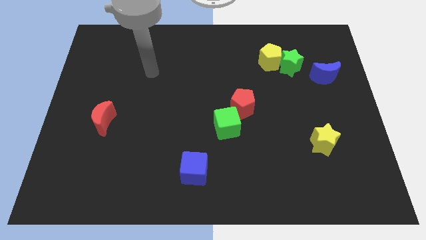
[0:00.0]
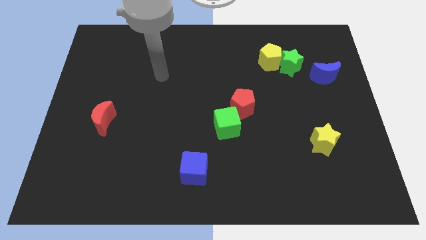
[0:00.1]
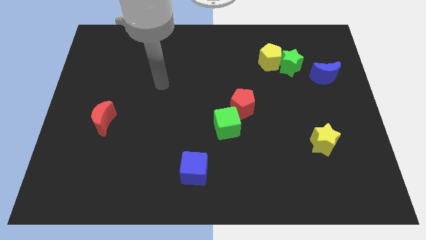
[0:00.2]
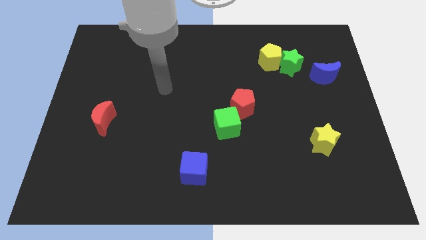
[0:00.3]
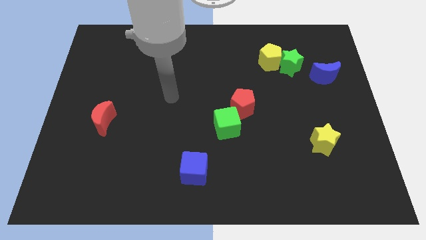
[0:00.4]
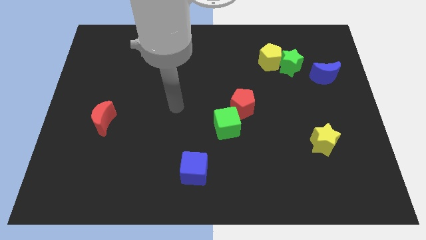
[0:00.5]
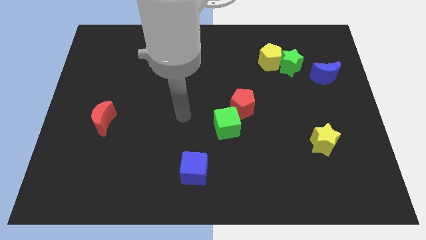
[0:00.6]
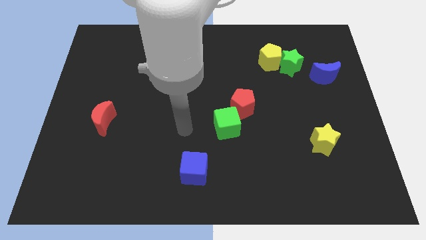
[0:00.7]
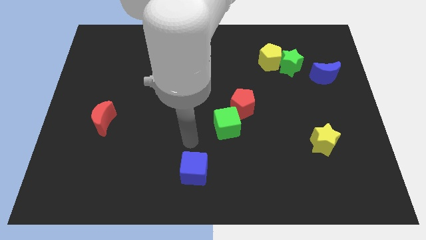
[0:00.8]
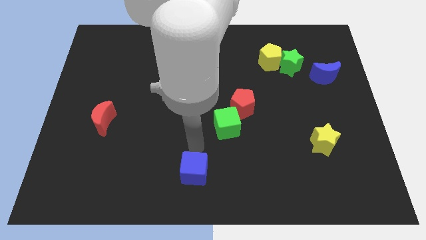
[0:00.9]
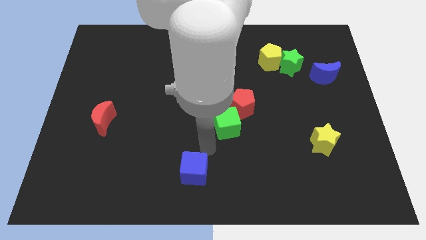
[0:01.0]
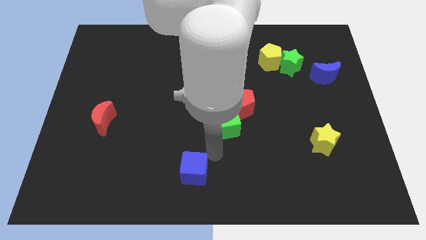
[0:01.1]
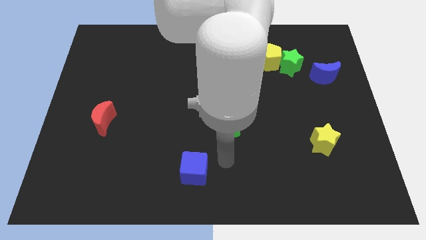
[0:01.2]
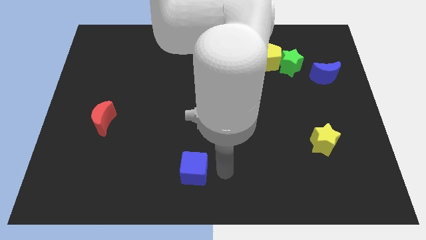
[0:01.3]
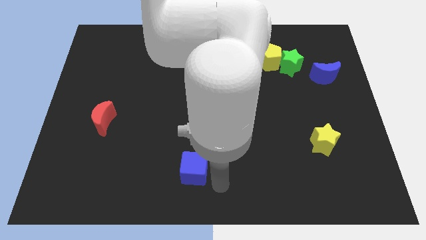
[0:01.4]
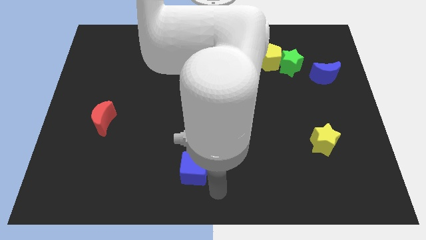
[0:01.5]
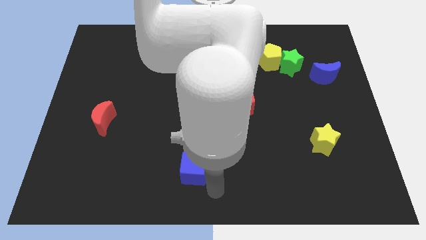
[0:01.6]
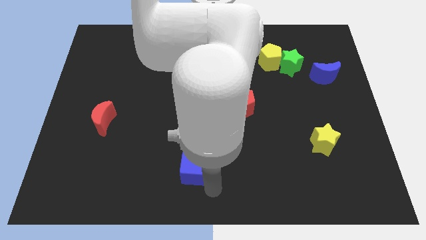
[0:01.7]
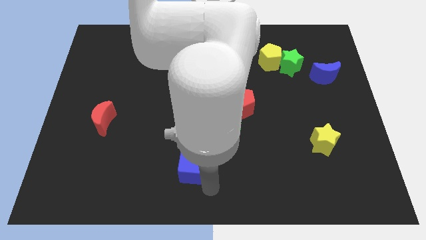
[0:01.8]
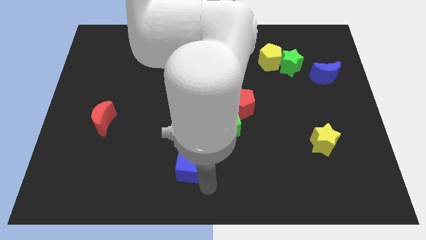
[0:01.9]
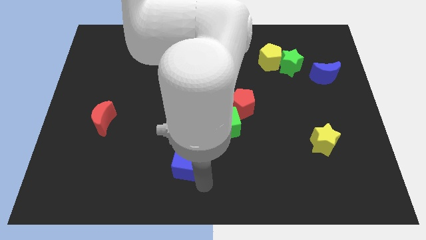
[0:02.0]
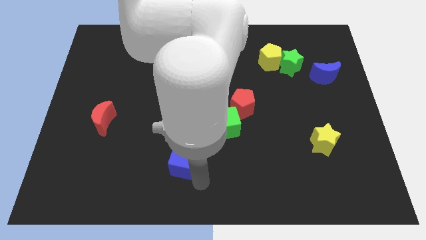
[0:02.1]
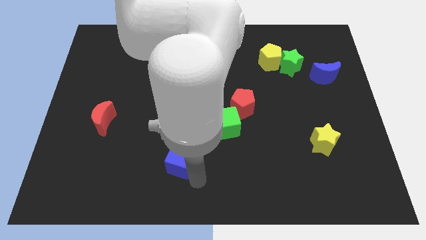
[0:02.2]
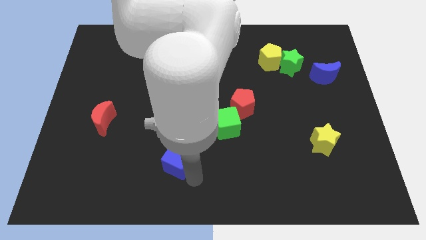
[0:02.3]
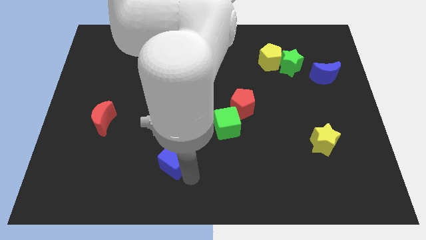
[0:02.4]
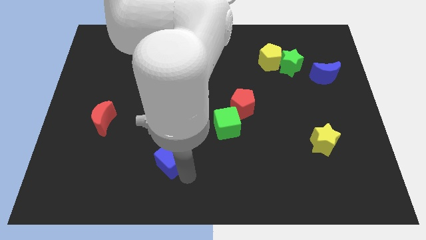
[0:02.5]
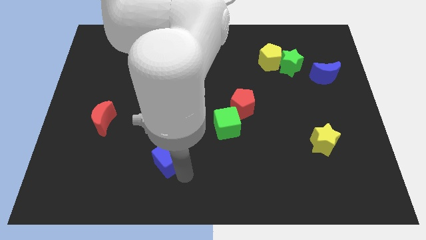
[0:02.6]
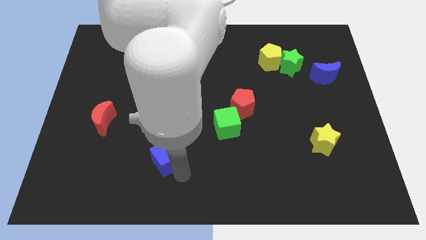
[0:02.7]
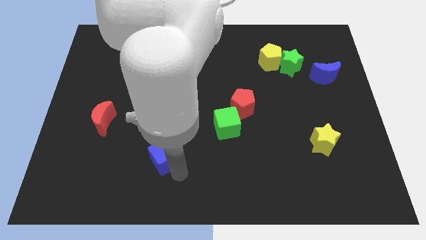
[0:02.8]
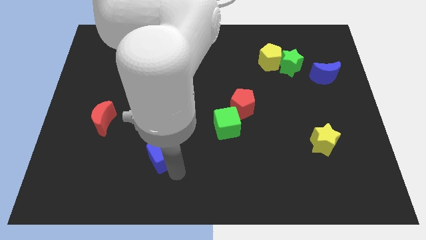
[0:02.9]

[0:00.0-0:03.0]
slide the blue cube slightly up and left

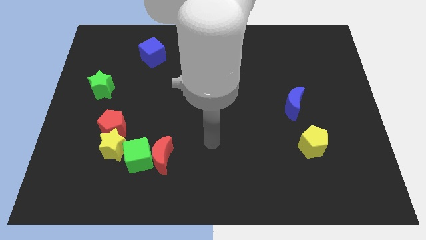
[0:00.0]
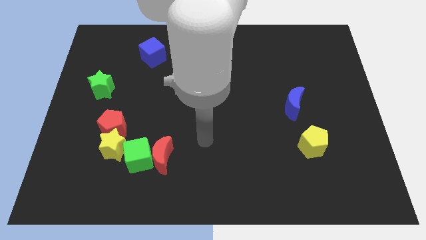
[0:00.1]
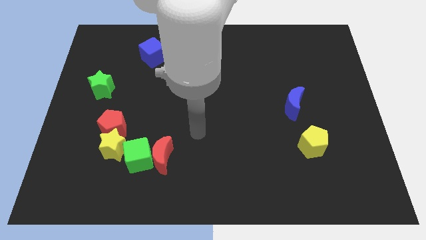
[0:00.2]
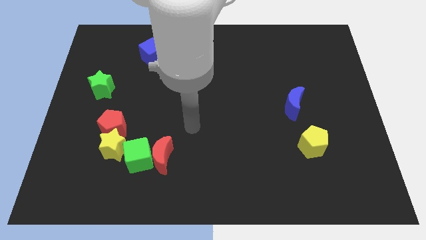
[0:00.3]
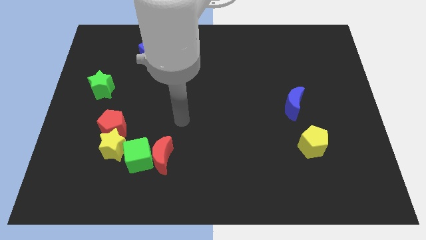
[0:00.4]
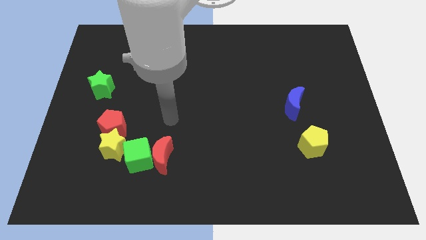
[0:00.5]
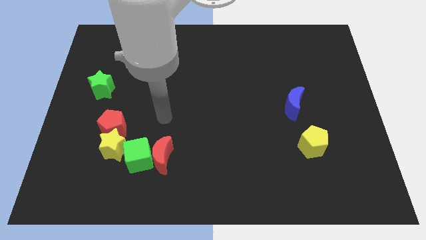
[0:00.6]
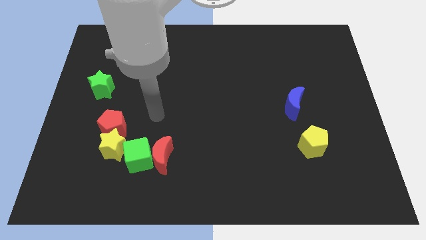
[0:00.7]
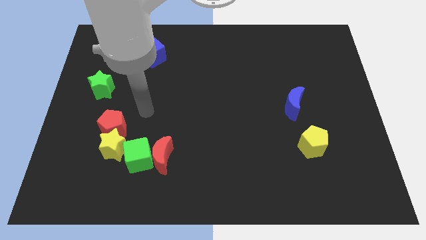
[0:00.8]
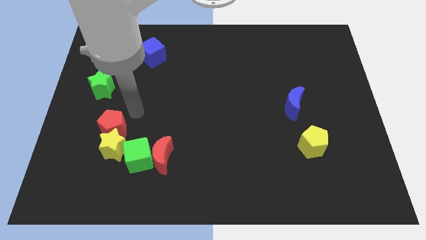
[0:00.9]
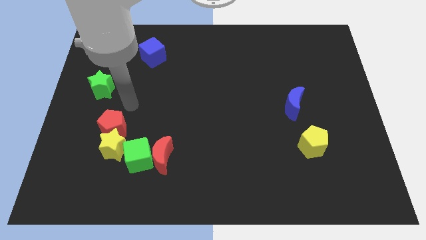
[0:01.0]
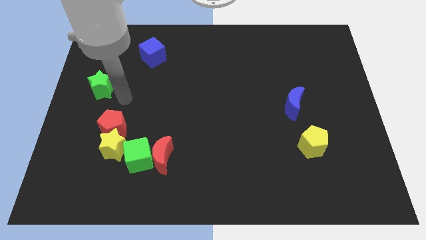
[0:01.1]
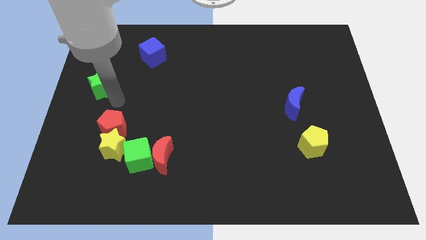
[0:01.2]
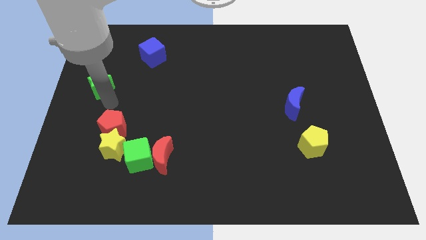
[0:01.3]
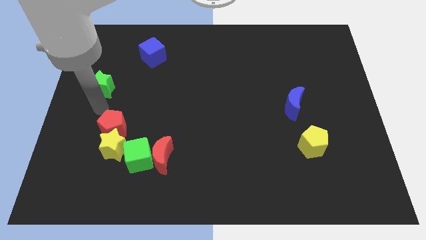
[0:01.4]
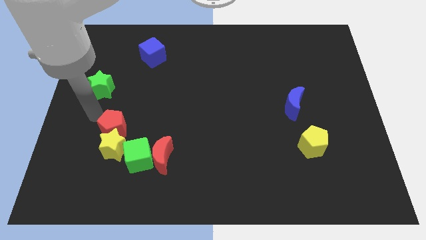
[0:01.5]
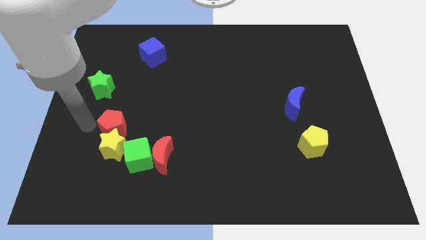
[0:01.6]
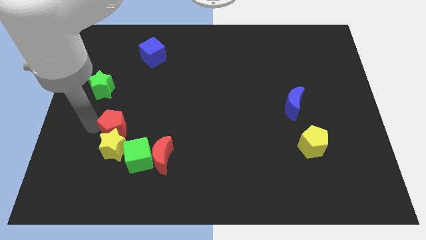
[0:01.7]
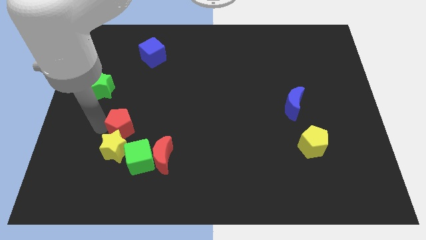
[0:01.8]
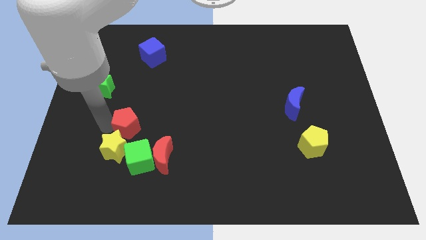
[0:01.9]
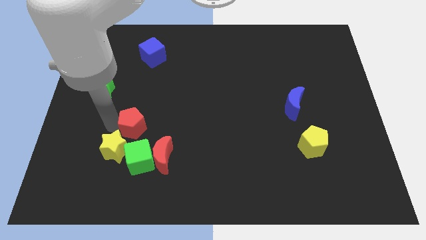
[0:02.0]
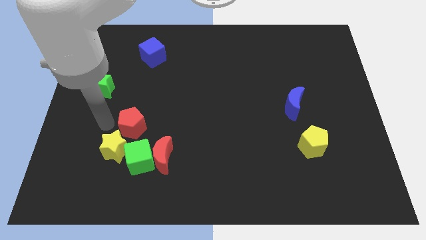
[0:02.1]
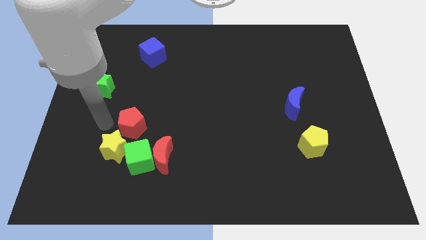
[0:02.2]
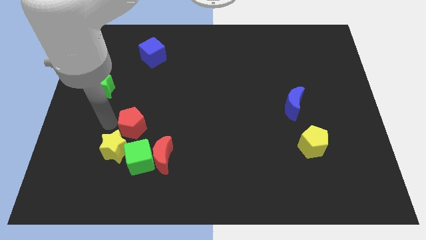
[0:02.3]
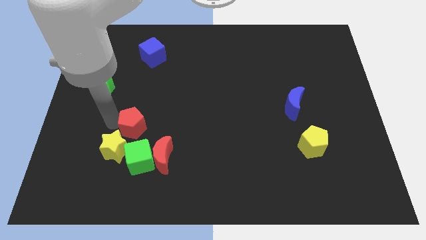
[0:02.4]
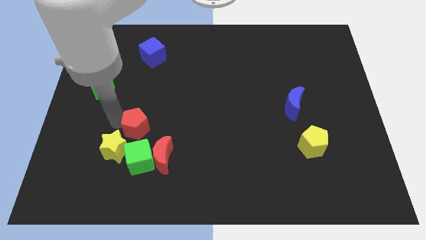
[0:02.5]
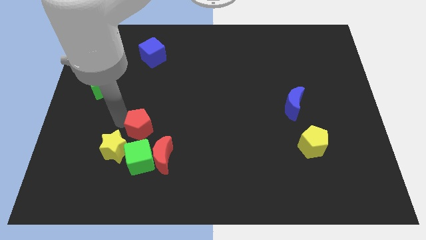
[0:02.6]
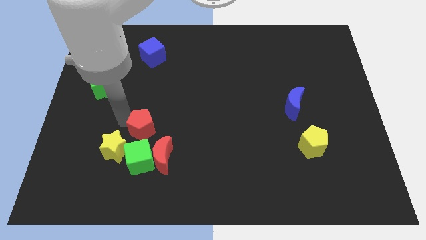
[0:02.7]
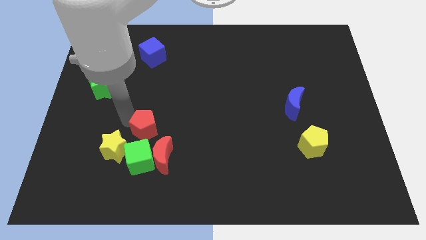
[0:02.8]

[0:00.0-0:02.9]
move the red pentagon to the right a bit

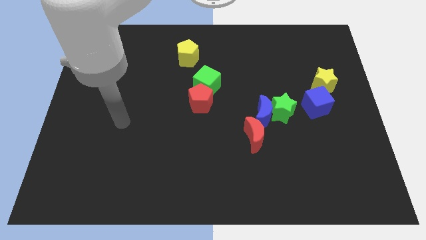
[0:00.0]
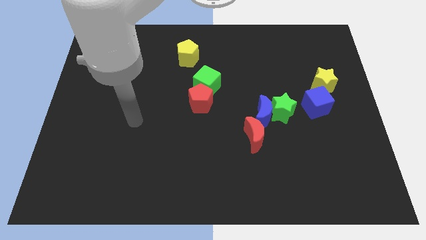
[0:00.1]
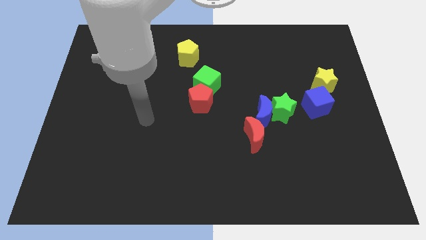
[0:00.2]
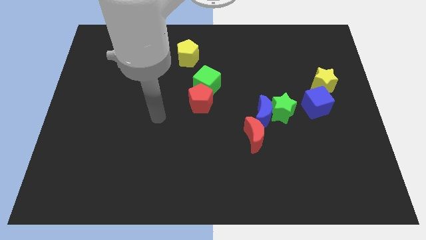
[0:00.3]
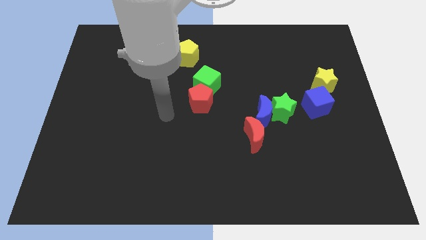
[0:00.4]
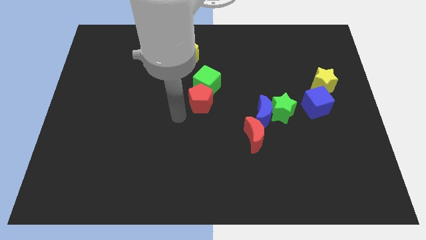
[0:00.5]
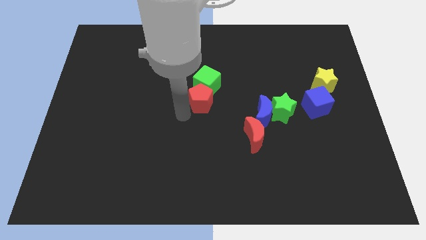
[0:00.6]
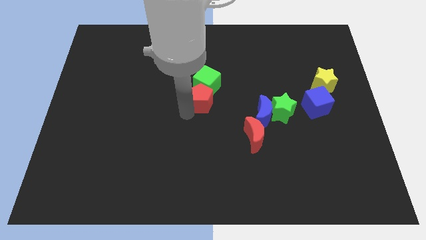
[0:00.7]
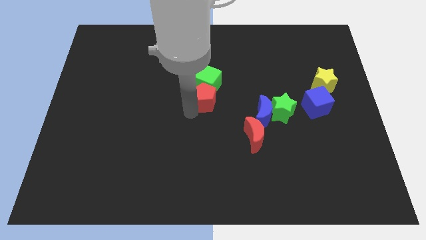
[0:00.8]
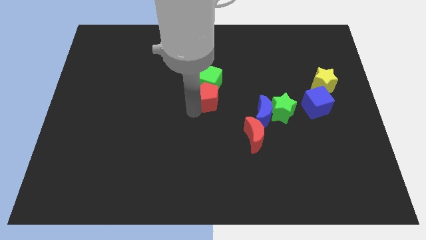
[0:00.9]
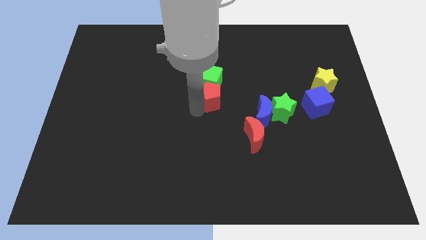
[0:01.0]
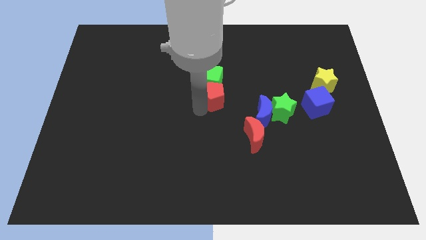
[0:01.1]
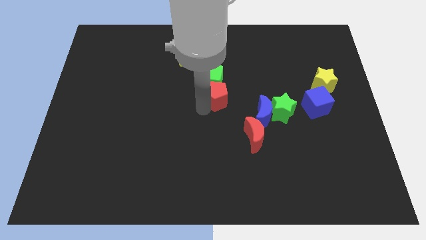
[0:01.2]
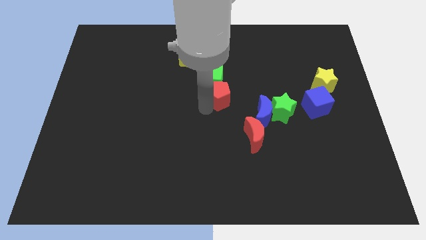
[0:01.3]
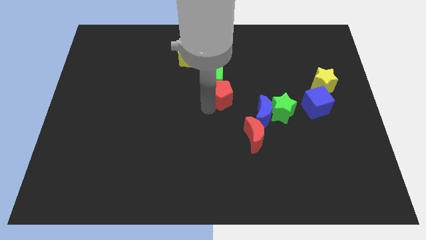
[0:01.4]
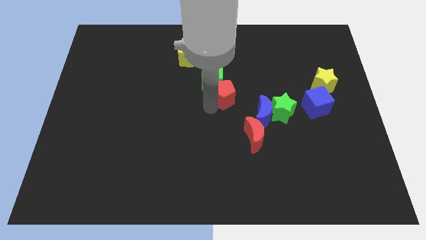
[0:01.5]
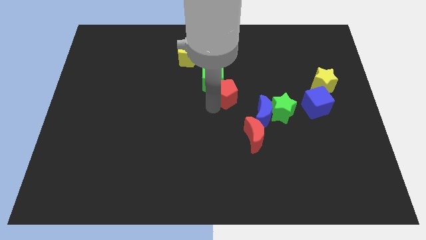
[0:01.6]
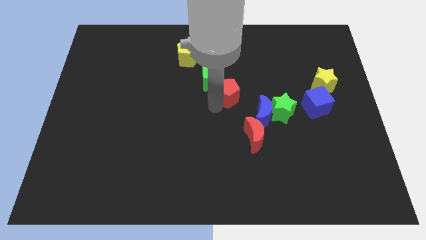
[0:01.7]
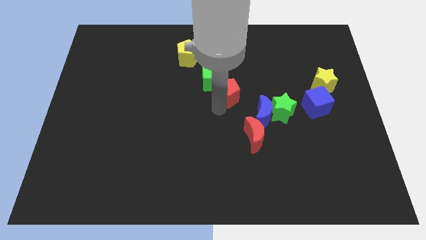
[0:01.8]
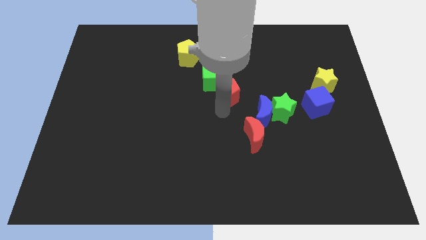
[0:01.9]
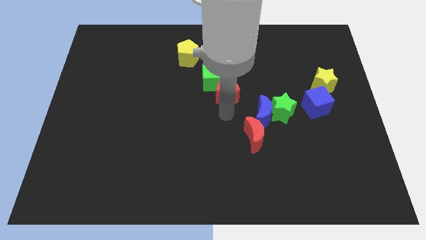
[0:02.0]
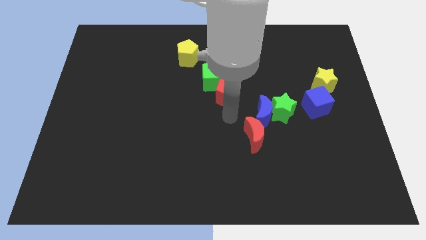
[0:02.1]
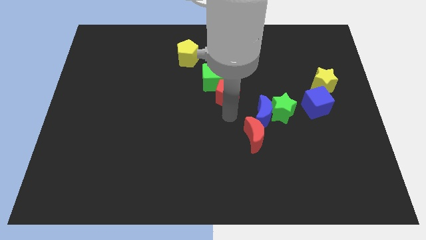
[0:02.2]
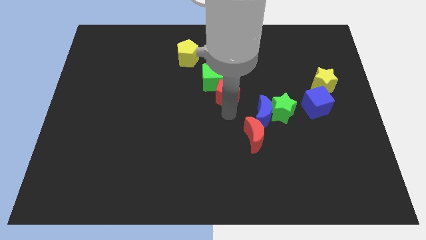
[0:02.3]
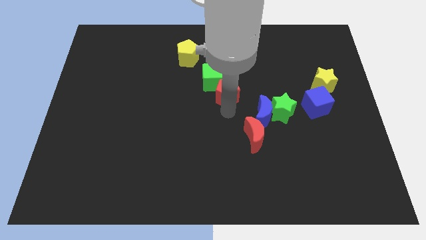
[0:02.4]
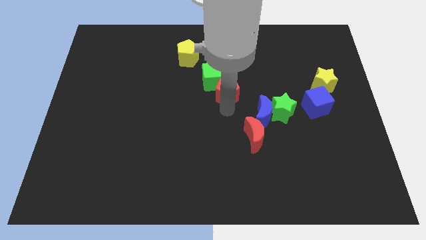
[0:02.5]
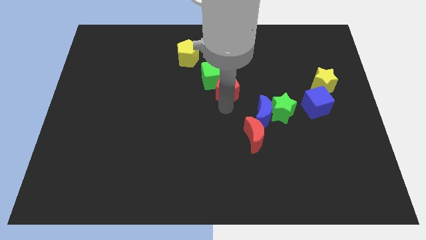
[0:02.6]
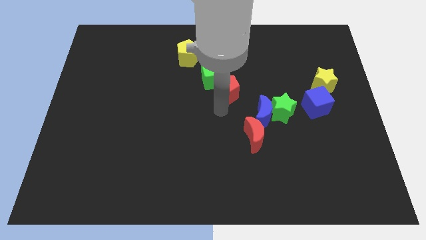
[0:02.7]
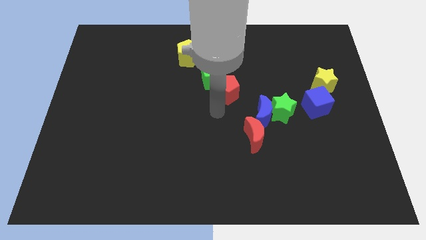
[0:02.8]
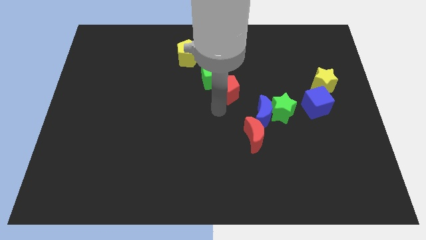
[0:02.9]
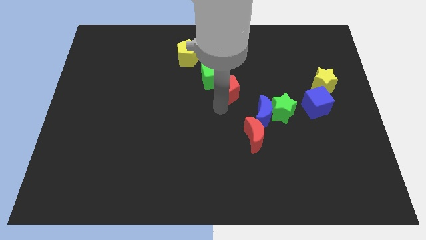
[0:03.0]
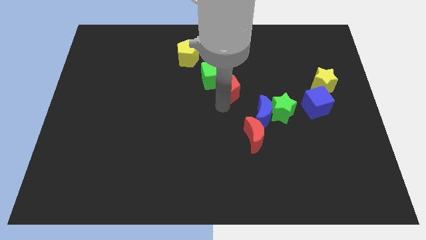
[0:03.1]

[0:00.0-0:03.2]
slightly slide the red pentagon diagonally up and right
